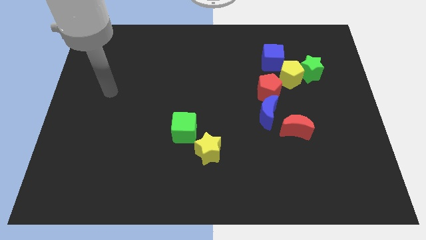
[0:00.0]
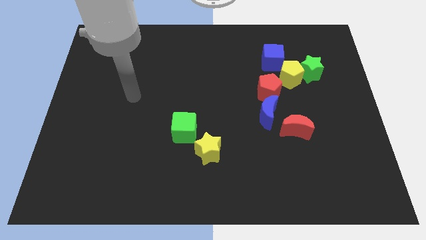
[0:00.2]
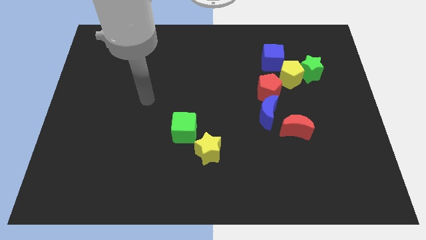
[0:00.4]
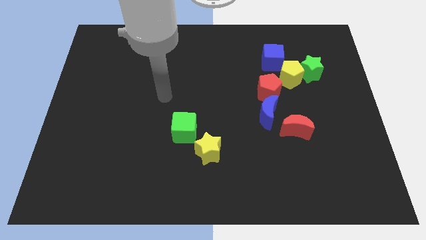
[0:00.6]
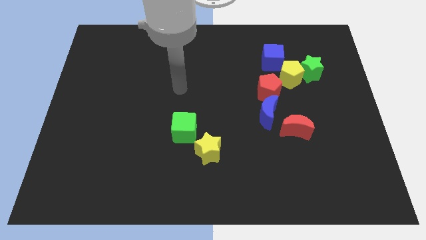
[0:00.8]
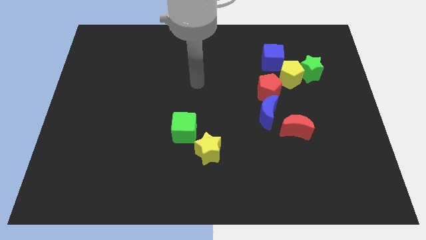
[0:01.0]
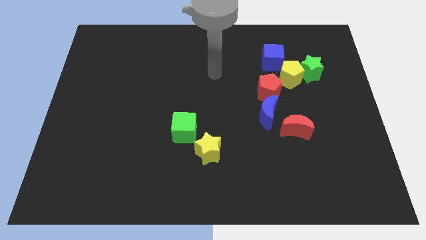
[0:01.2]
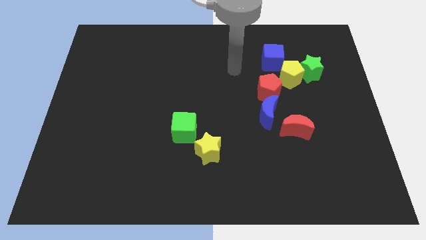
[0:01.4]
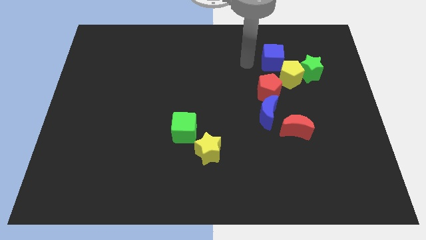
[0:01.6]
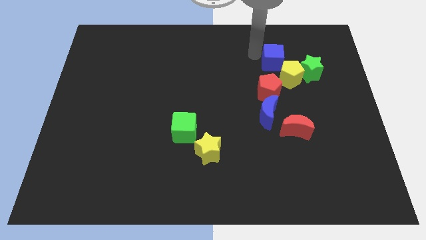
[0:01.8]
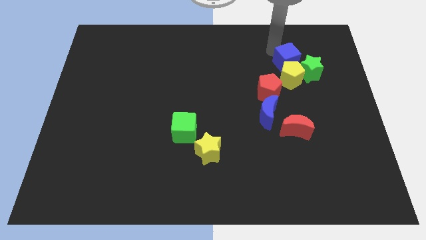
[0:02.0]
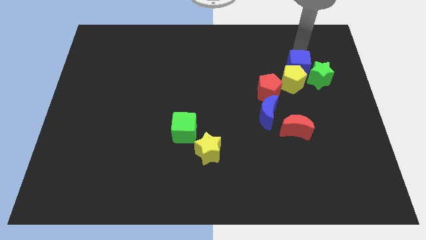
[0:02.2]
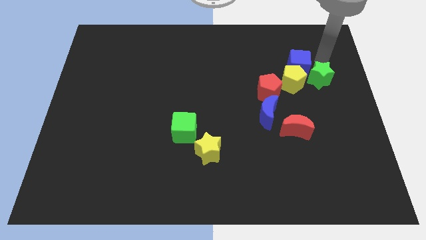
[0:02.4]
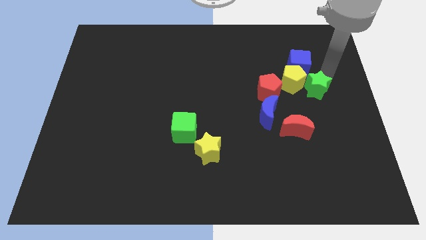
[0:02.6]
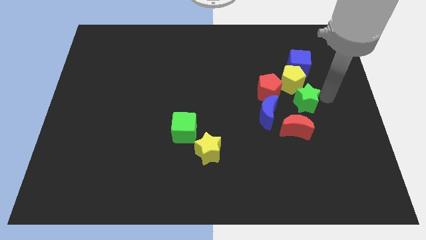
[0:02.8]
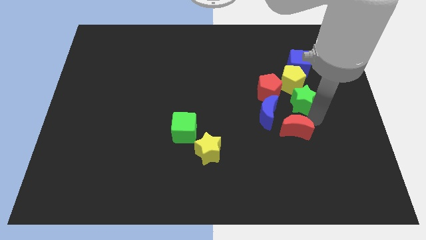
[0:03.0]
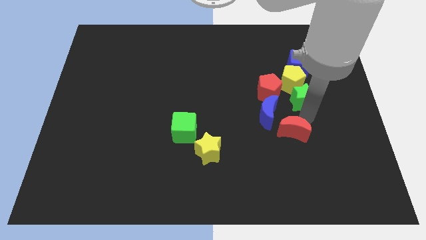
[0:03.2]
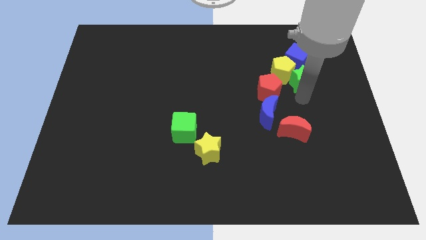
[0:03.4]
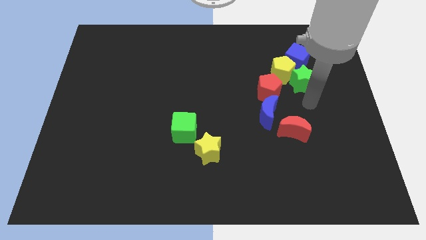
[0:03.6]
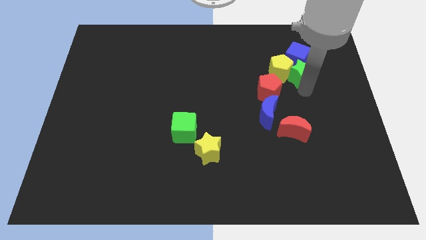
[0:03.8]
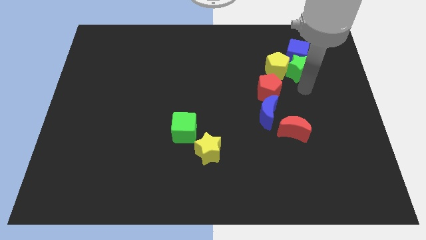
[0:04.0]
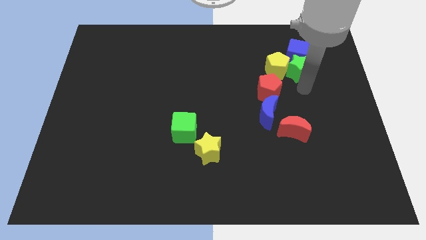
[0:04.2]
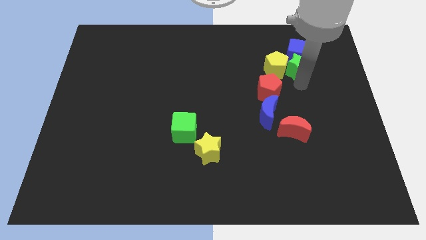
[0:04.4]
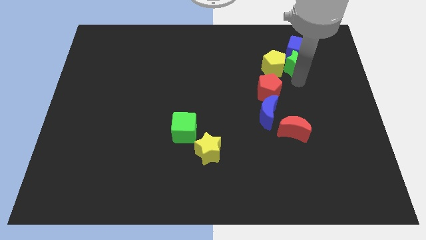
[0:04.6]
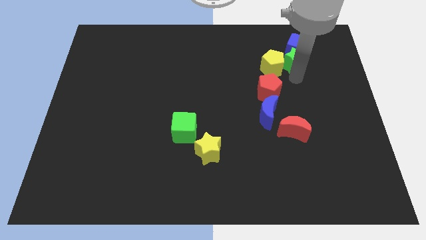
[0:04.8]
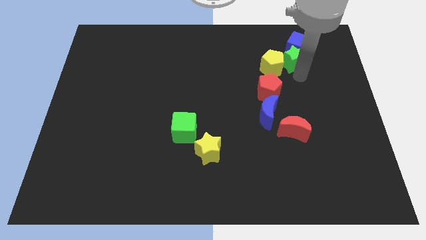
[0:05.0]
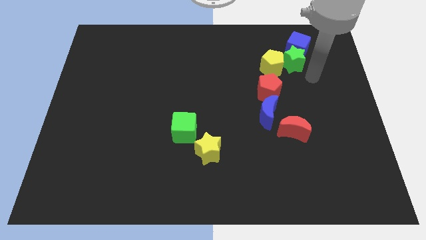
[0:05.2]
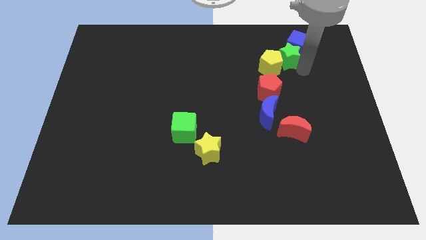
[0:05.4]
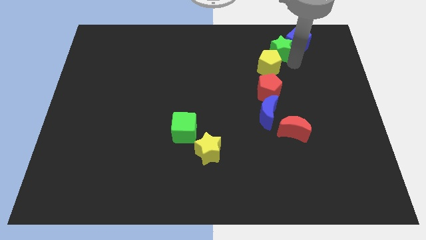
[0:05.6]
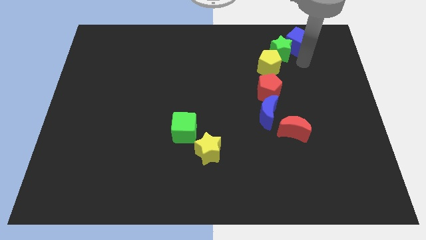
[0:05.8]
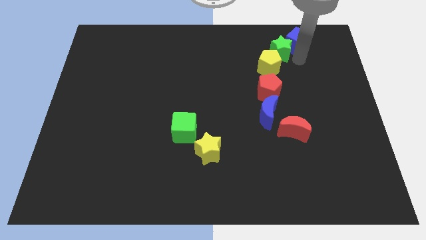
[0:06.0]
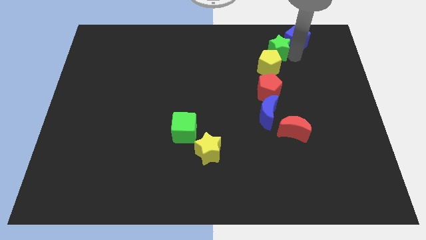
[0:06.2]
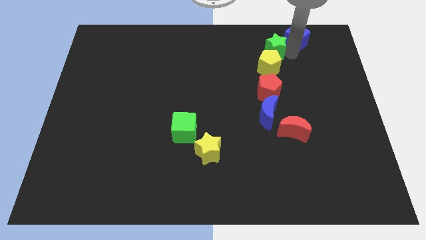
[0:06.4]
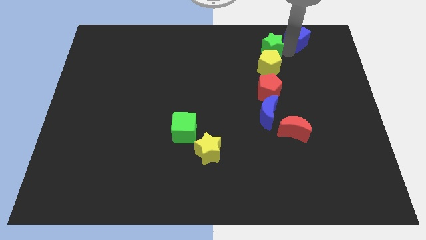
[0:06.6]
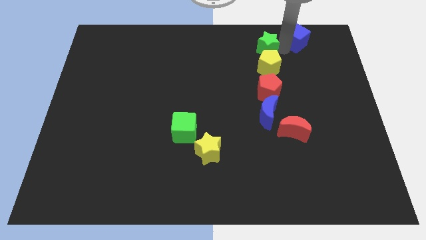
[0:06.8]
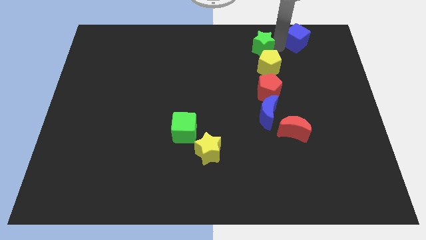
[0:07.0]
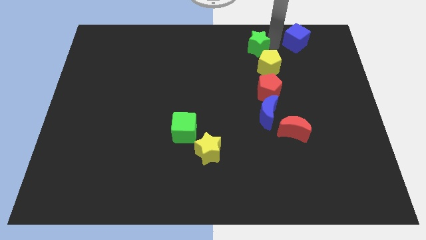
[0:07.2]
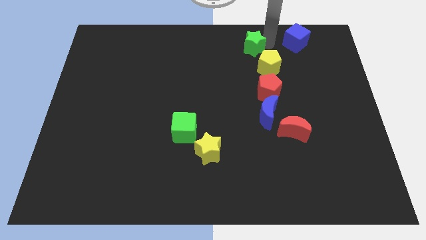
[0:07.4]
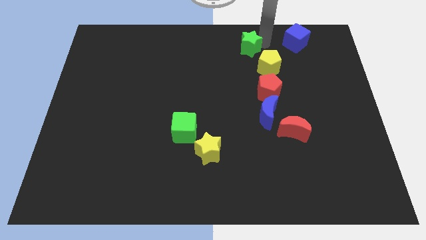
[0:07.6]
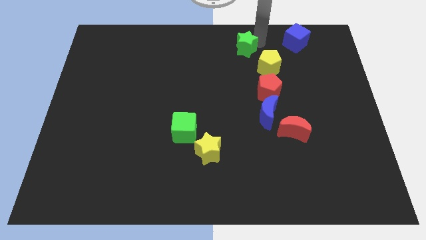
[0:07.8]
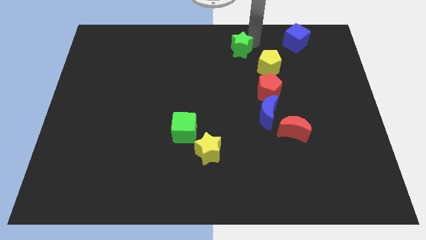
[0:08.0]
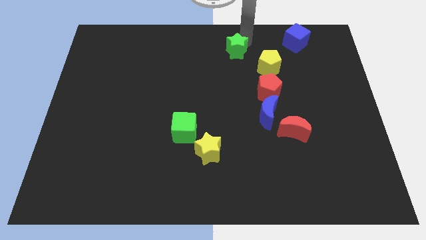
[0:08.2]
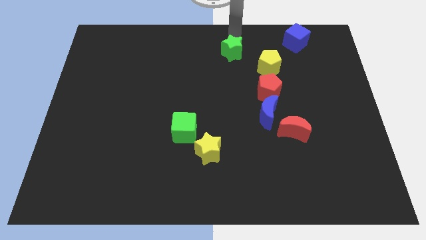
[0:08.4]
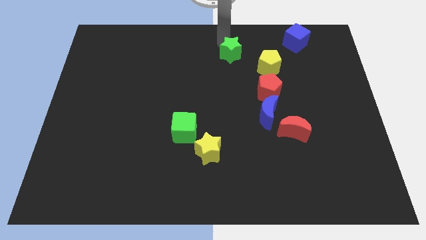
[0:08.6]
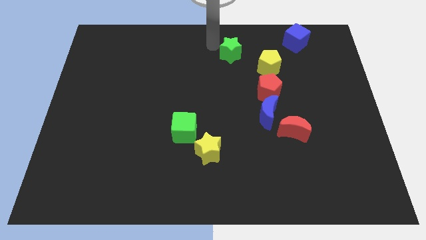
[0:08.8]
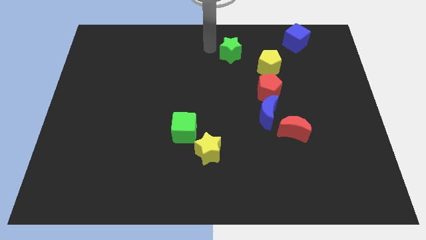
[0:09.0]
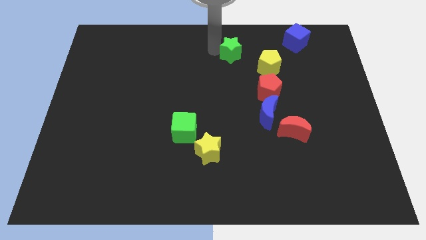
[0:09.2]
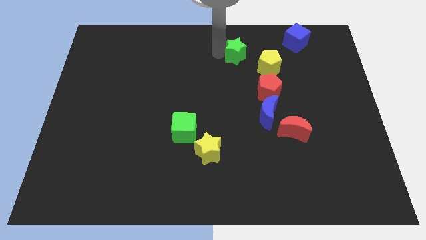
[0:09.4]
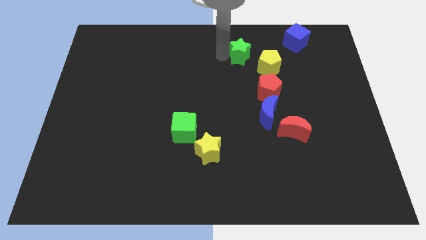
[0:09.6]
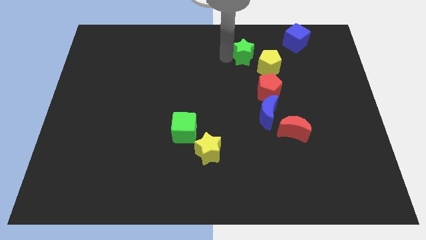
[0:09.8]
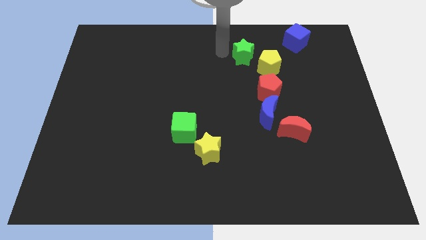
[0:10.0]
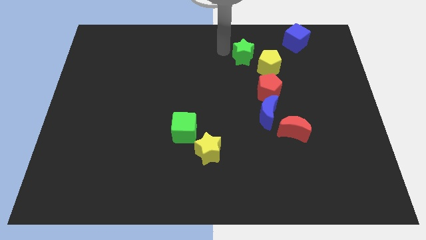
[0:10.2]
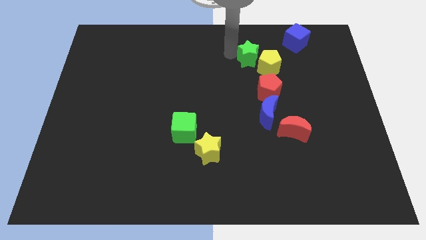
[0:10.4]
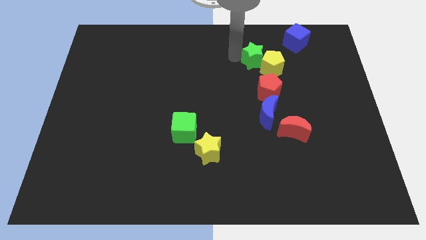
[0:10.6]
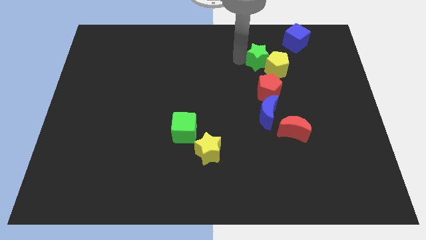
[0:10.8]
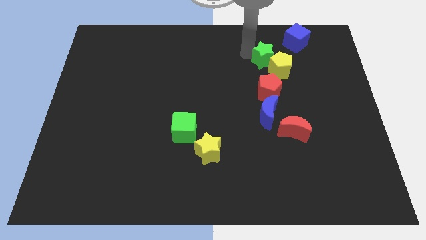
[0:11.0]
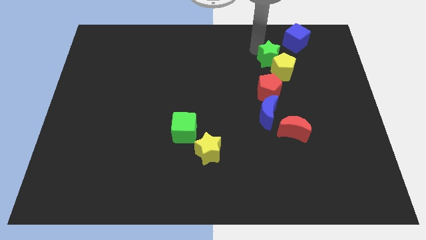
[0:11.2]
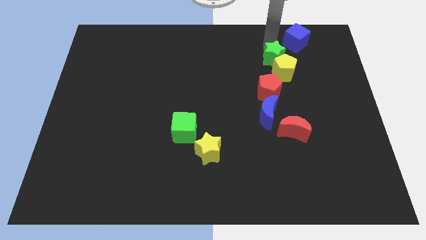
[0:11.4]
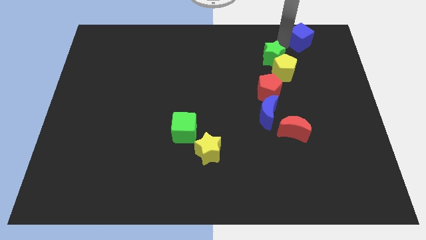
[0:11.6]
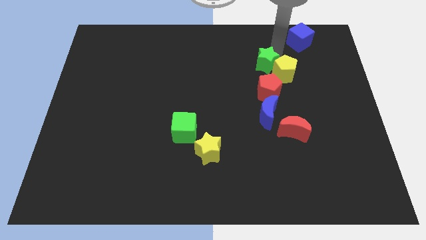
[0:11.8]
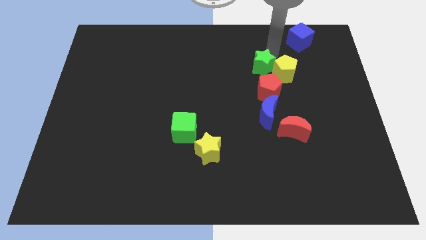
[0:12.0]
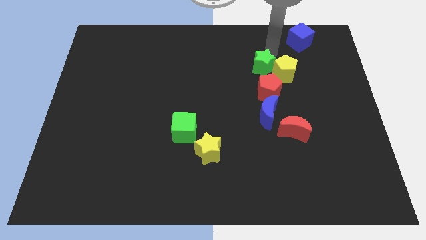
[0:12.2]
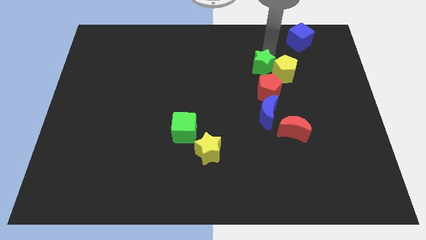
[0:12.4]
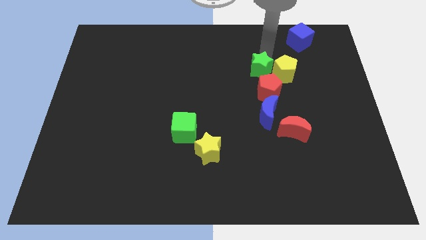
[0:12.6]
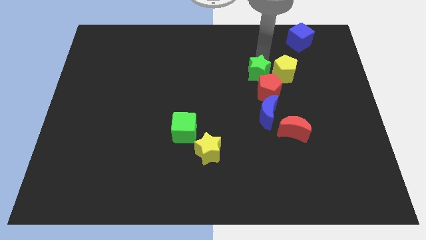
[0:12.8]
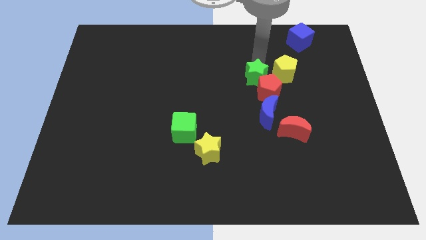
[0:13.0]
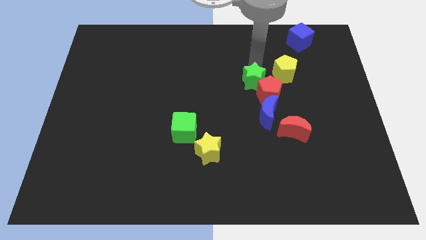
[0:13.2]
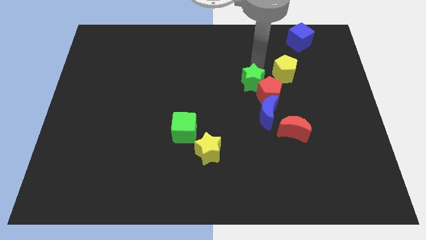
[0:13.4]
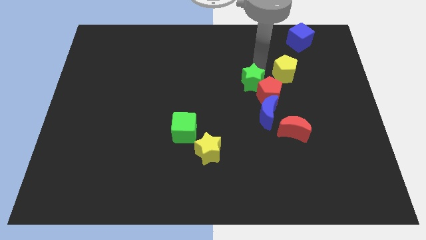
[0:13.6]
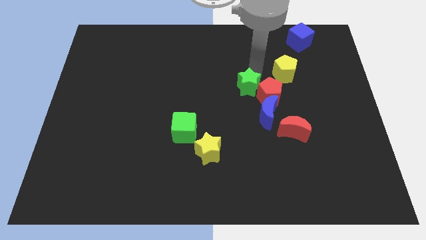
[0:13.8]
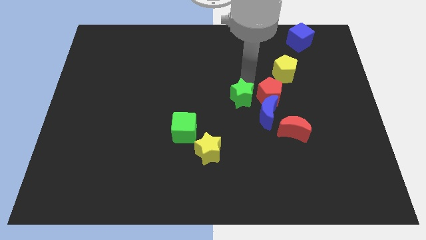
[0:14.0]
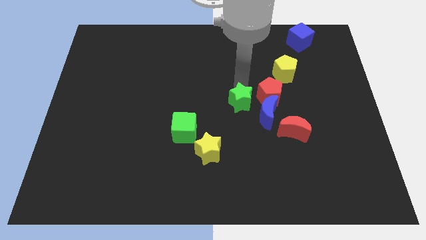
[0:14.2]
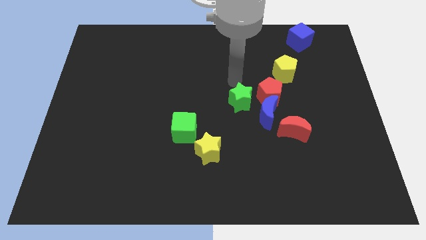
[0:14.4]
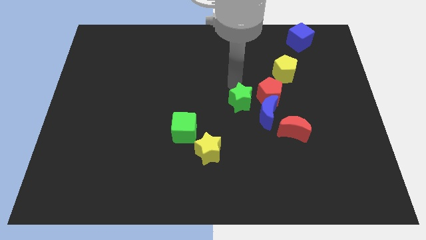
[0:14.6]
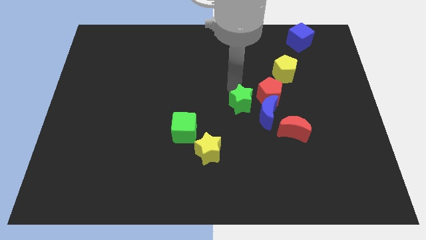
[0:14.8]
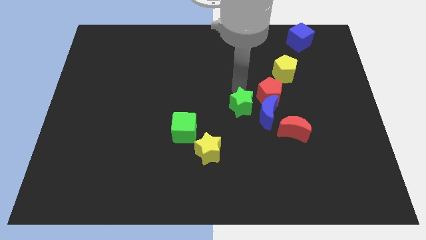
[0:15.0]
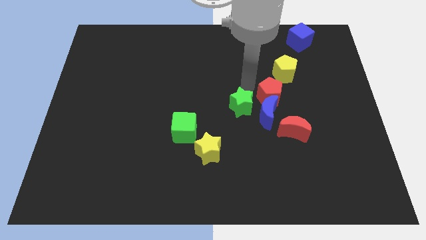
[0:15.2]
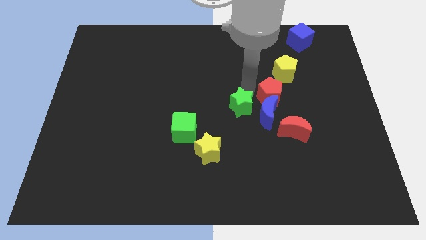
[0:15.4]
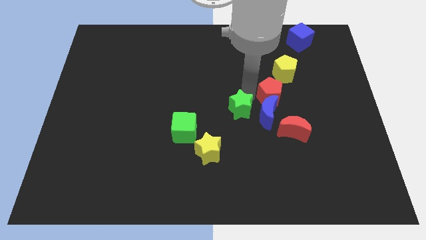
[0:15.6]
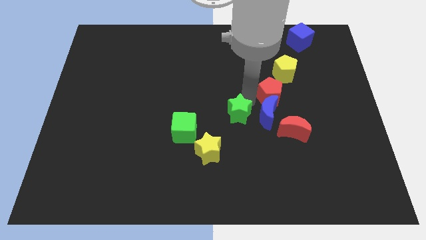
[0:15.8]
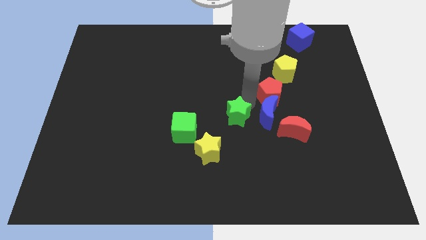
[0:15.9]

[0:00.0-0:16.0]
put the green star to the right of the green cube
